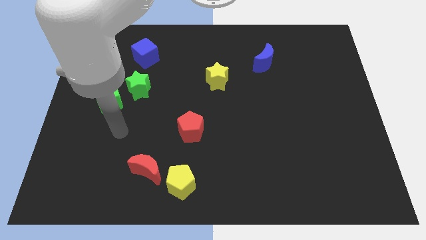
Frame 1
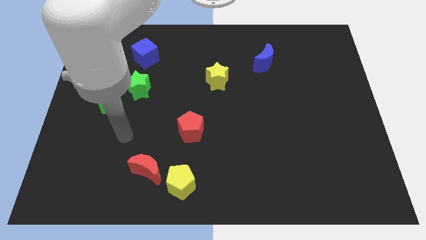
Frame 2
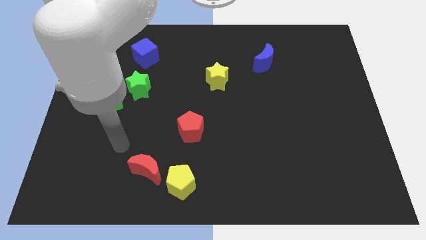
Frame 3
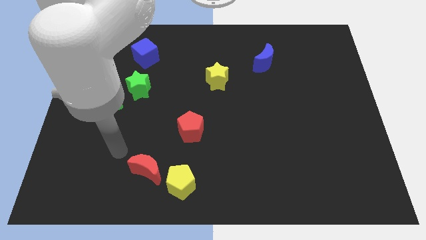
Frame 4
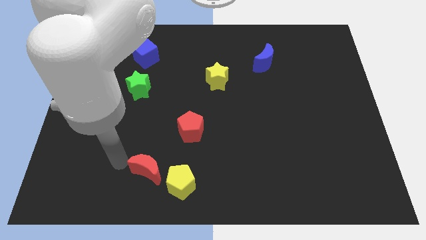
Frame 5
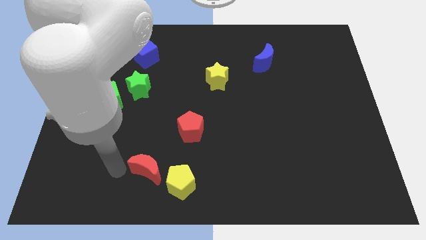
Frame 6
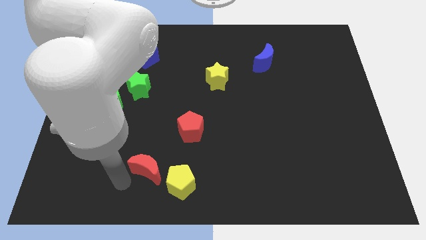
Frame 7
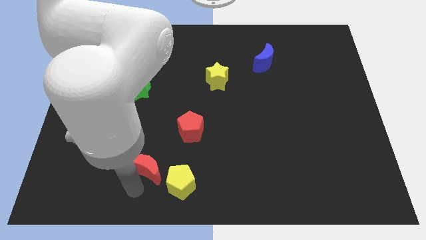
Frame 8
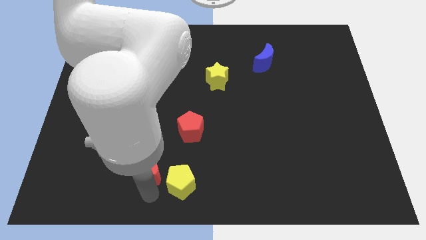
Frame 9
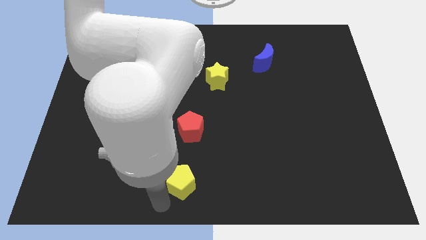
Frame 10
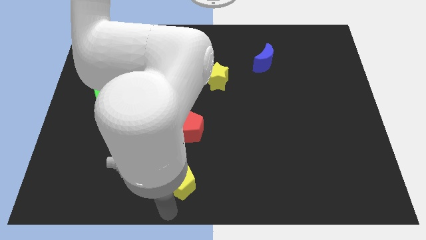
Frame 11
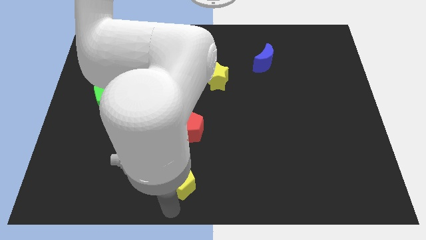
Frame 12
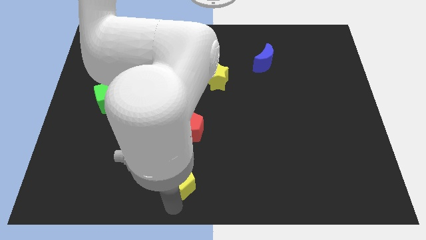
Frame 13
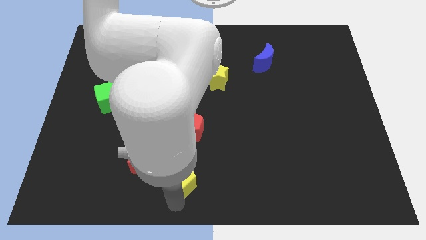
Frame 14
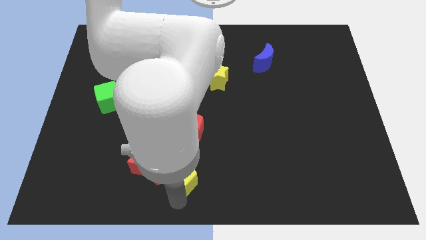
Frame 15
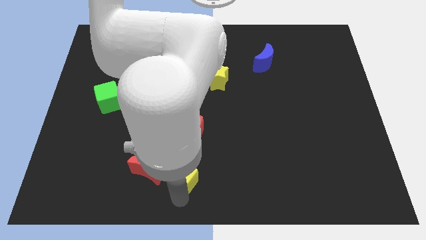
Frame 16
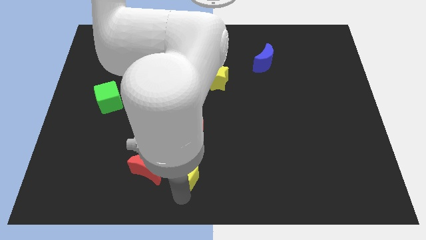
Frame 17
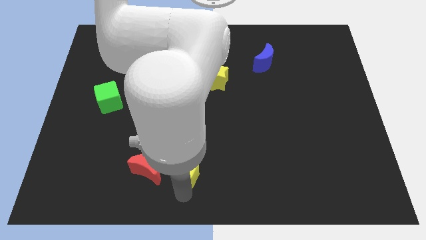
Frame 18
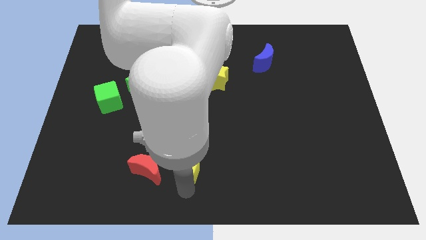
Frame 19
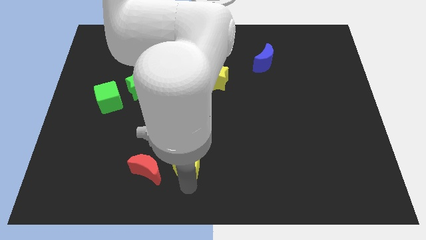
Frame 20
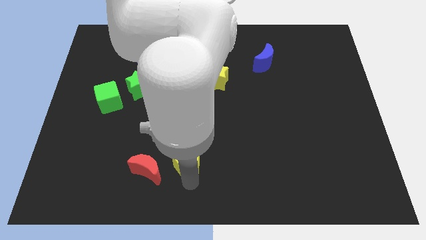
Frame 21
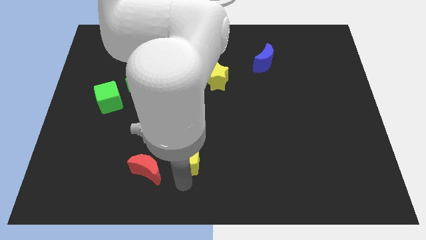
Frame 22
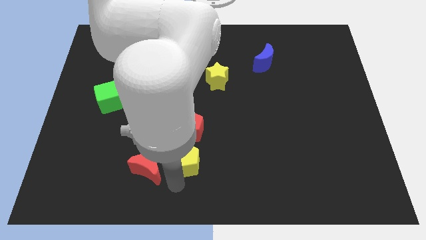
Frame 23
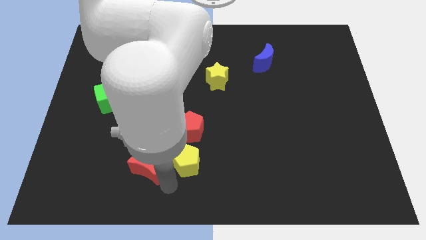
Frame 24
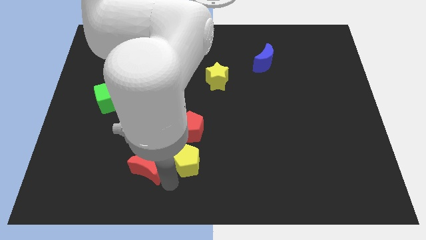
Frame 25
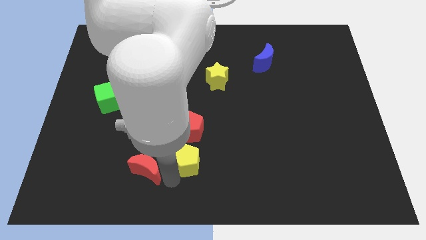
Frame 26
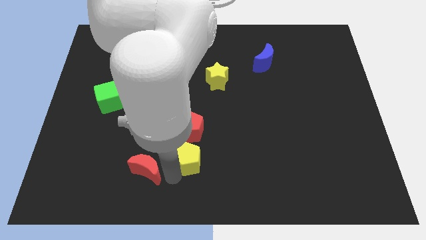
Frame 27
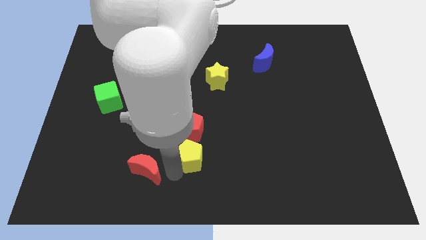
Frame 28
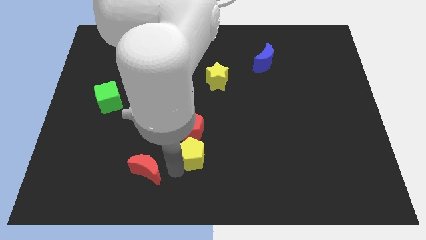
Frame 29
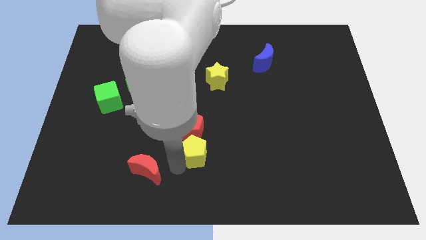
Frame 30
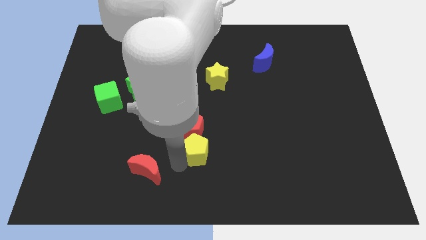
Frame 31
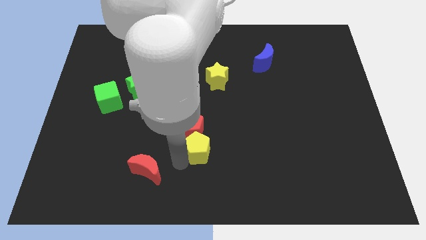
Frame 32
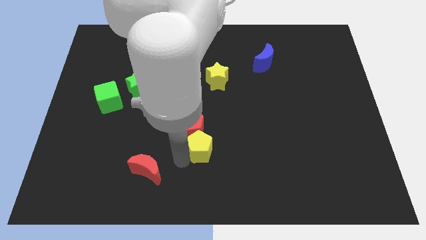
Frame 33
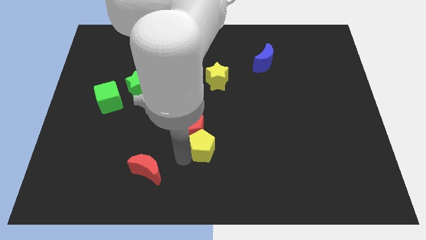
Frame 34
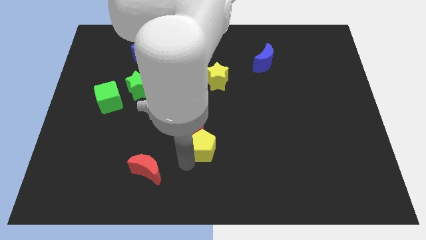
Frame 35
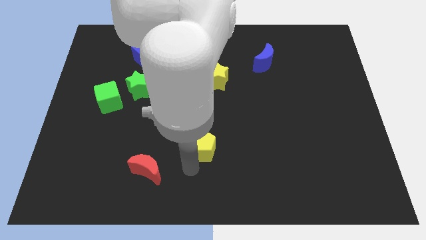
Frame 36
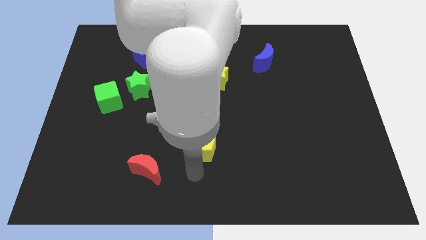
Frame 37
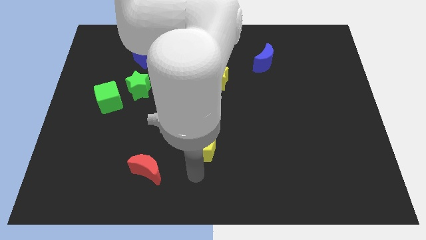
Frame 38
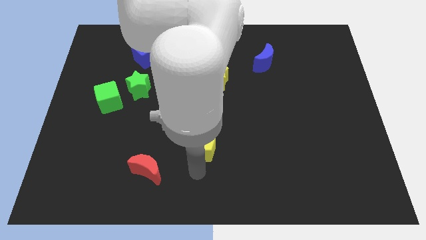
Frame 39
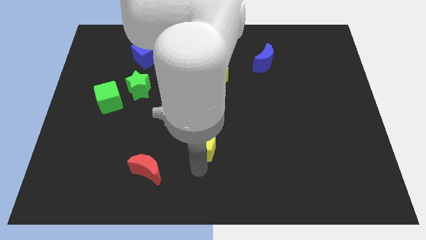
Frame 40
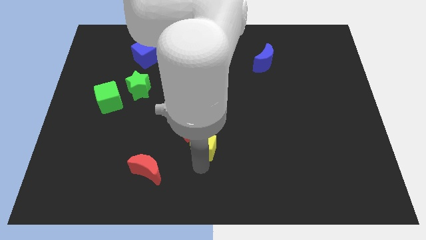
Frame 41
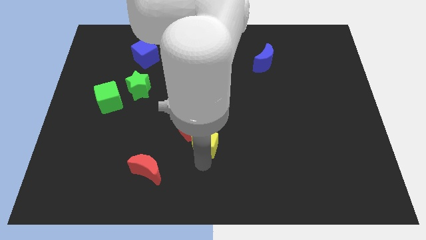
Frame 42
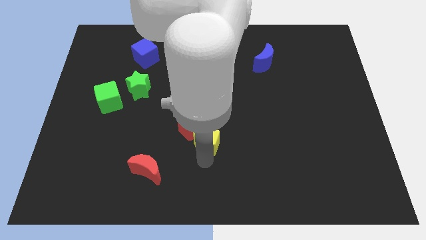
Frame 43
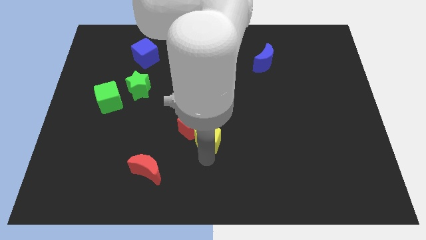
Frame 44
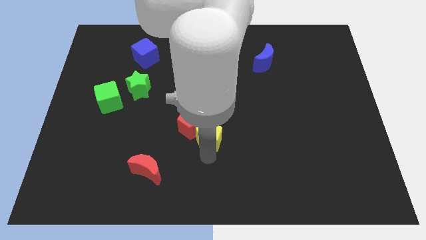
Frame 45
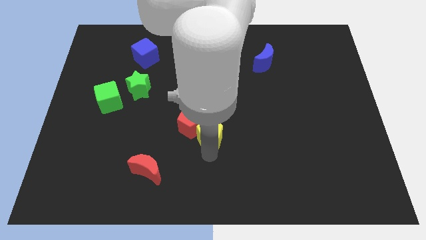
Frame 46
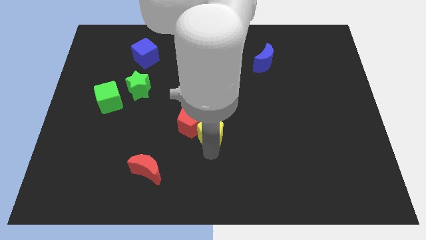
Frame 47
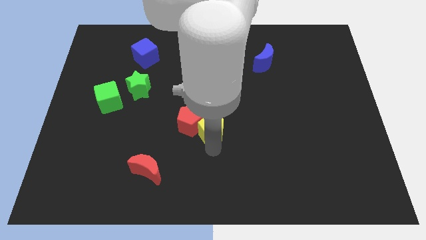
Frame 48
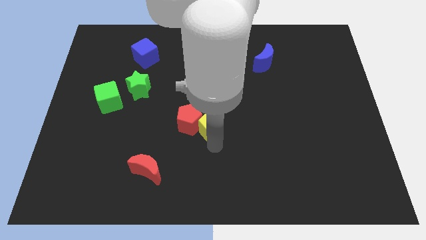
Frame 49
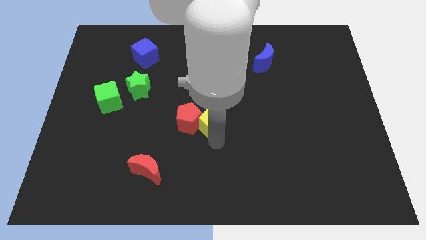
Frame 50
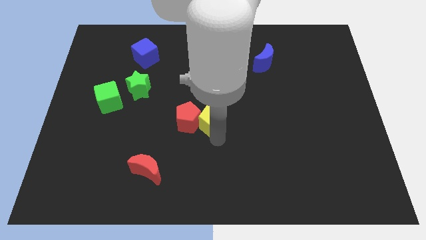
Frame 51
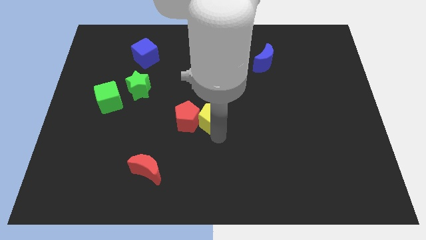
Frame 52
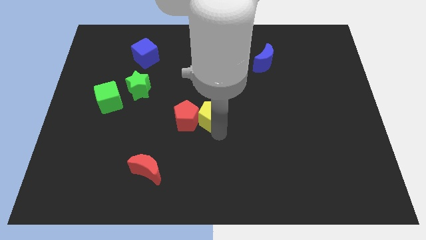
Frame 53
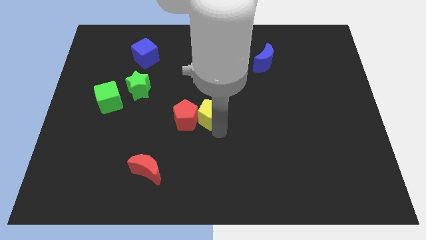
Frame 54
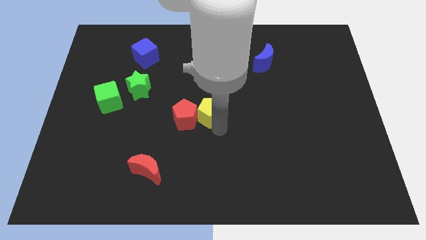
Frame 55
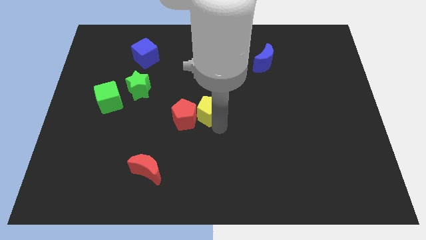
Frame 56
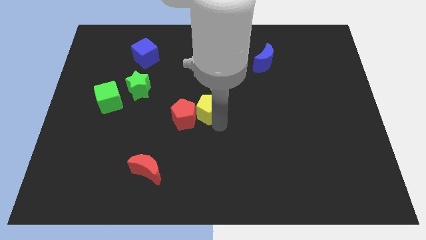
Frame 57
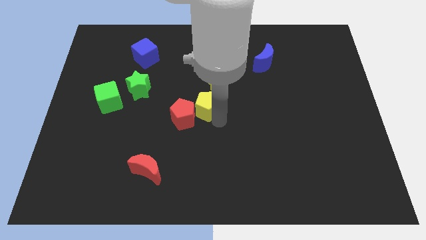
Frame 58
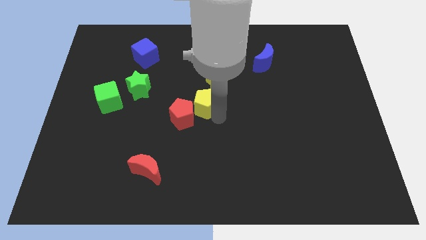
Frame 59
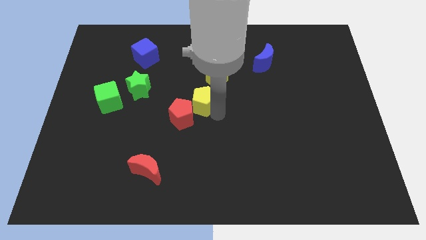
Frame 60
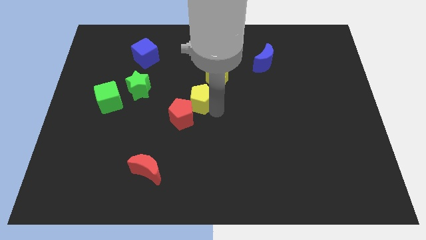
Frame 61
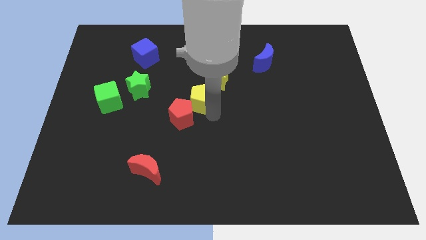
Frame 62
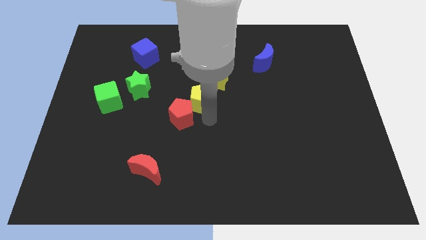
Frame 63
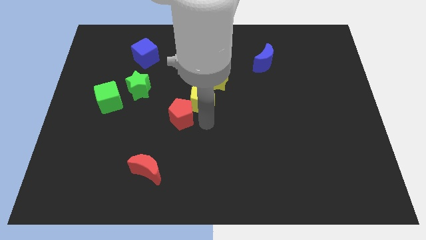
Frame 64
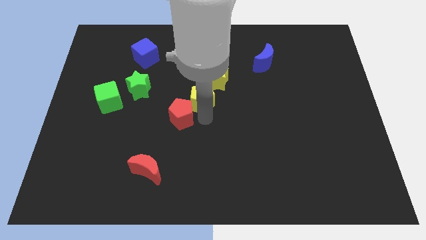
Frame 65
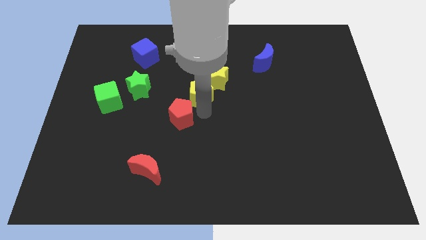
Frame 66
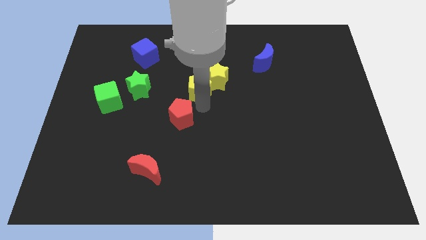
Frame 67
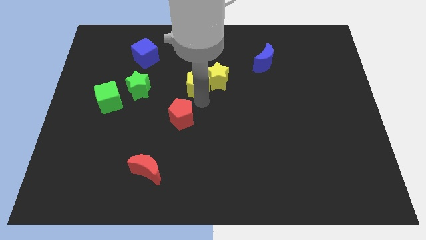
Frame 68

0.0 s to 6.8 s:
move the yellow pentagon diagonally up and to the left of the yellow star

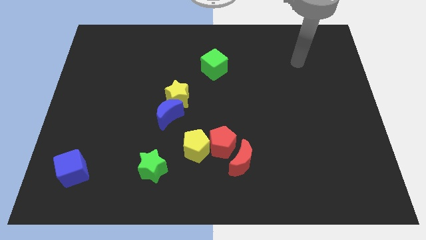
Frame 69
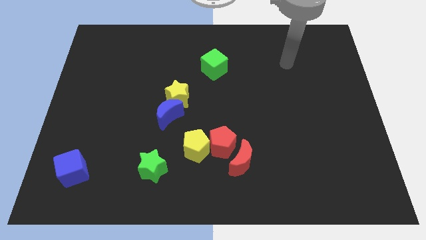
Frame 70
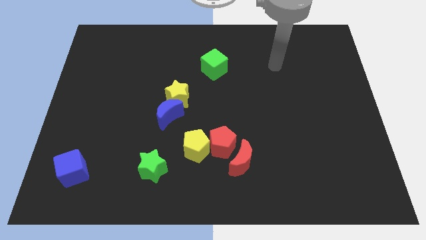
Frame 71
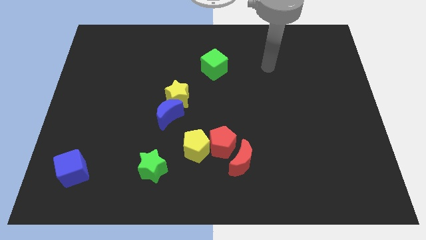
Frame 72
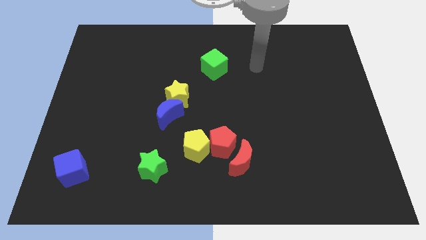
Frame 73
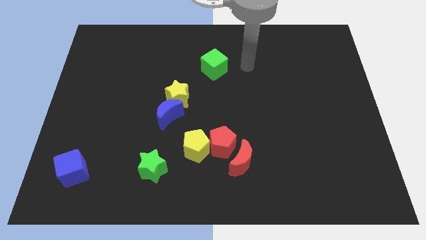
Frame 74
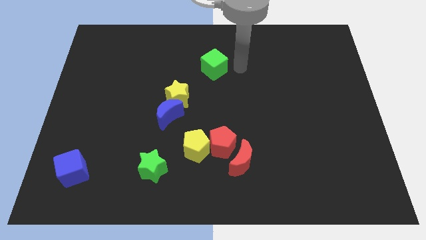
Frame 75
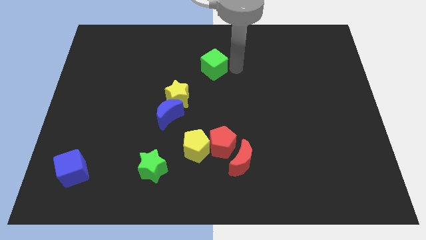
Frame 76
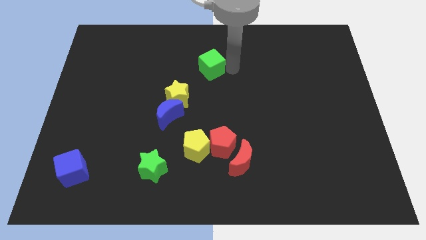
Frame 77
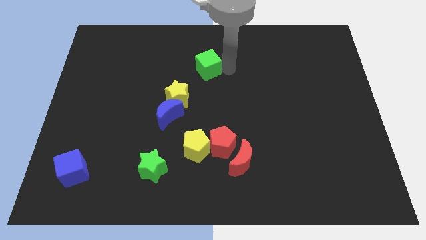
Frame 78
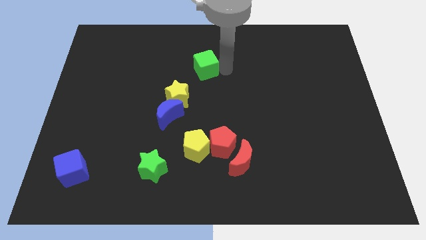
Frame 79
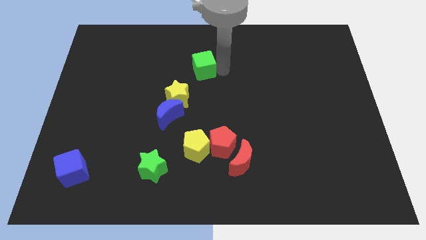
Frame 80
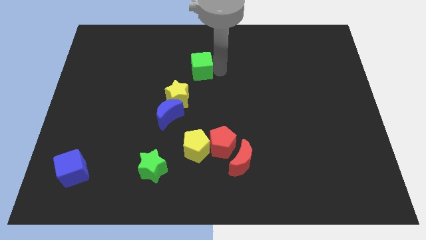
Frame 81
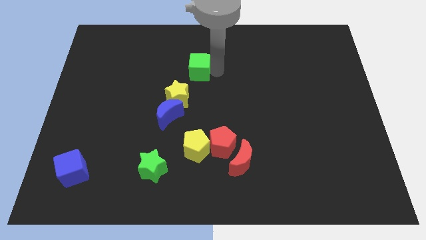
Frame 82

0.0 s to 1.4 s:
slide the green cube to the top side of the yellow star
